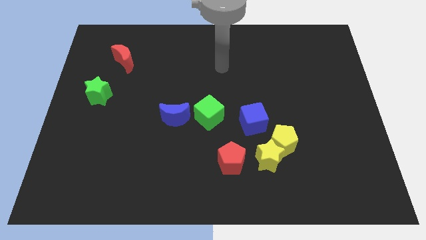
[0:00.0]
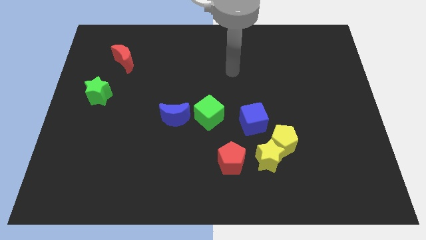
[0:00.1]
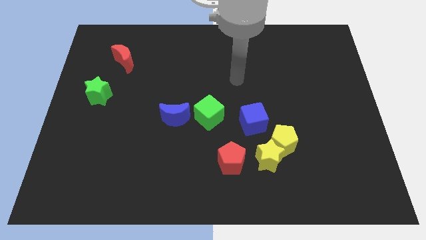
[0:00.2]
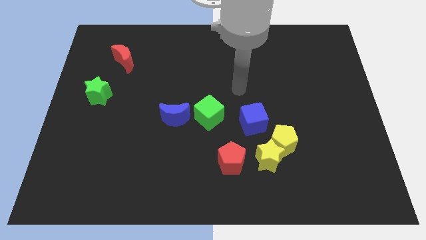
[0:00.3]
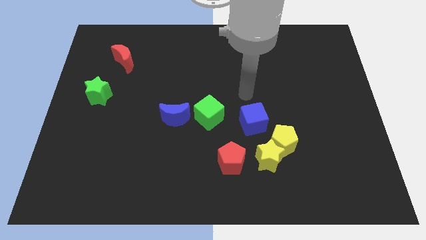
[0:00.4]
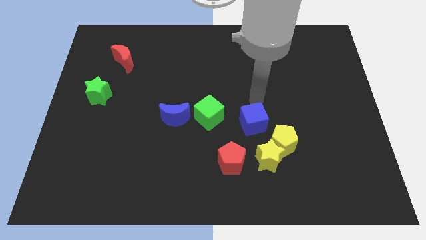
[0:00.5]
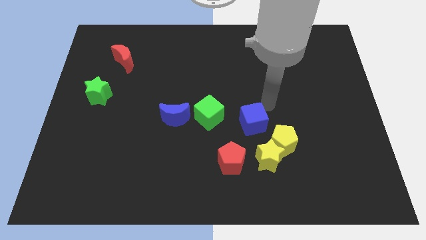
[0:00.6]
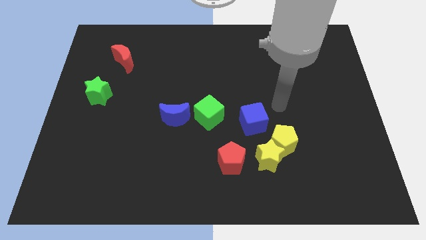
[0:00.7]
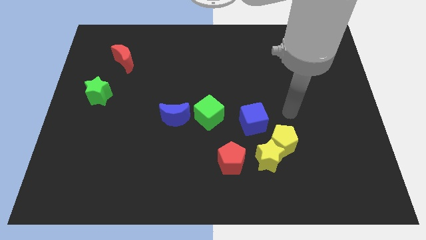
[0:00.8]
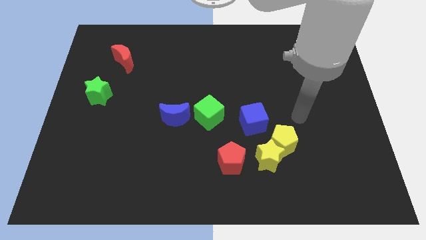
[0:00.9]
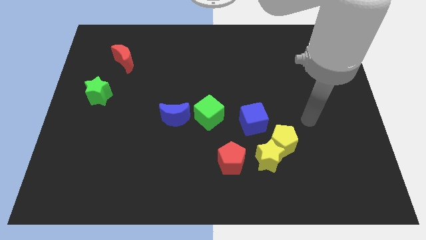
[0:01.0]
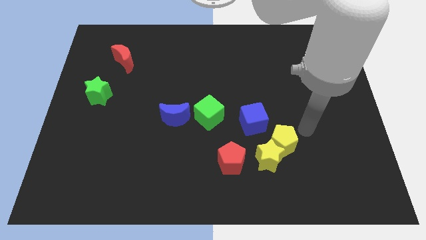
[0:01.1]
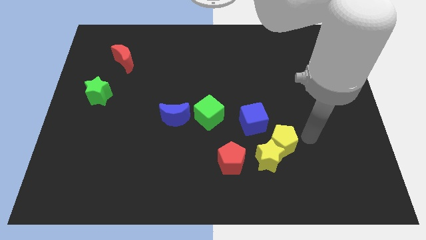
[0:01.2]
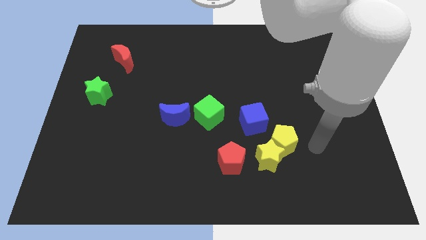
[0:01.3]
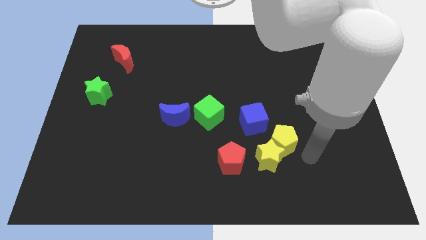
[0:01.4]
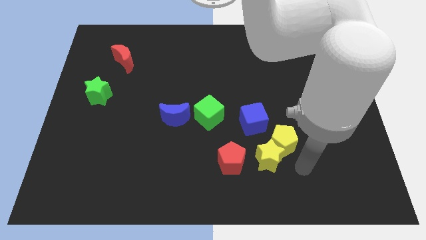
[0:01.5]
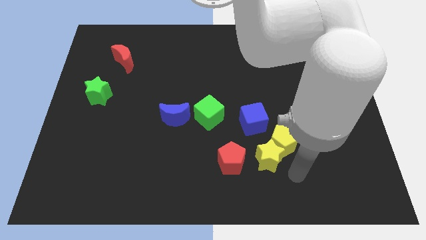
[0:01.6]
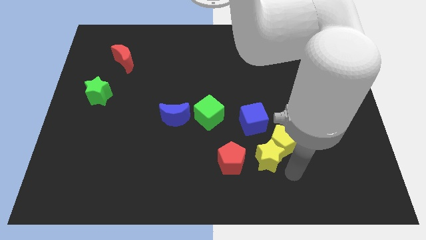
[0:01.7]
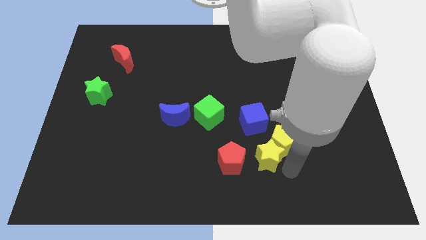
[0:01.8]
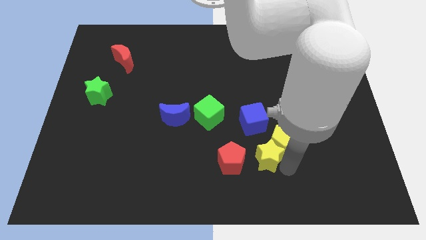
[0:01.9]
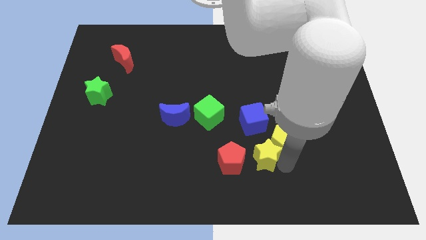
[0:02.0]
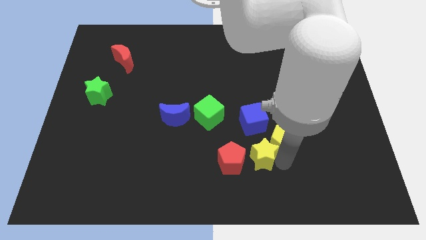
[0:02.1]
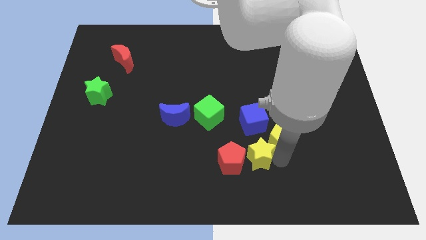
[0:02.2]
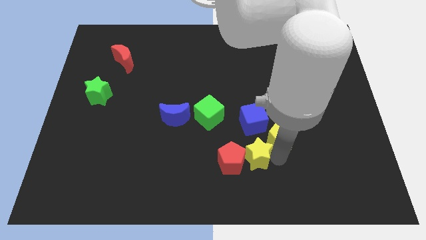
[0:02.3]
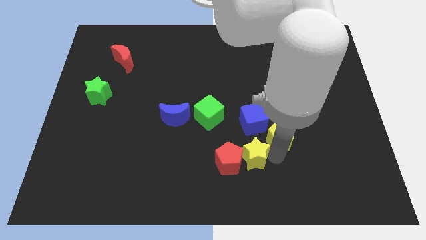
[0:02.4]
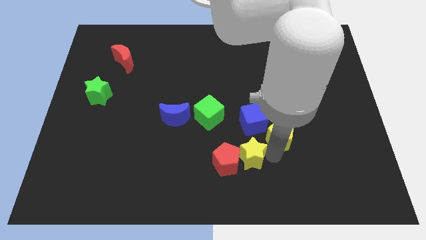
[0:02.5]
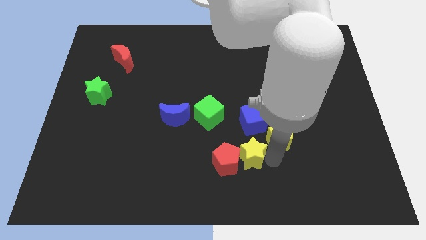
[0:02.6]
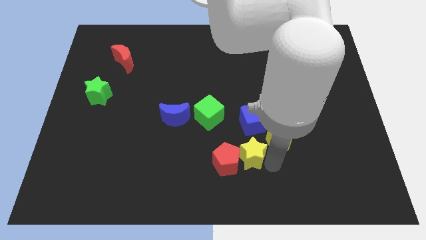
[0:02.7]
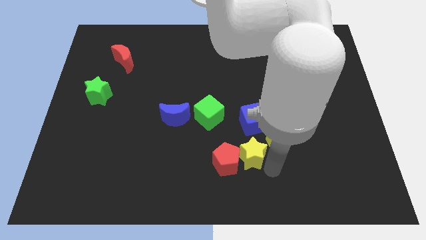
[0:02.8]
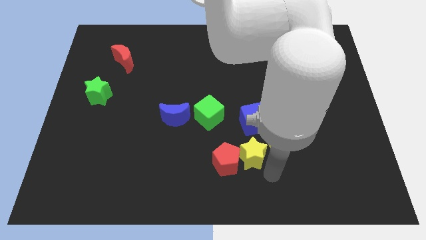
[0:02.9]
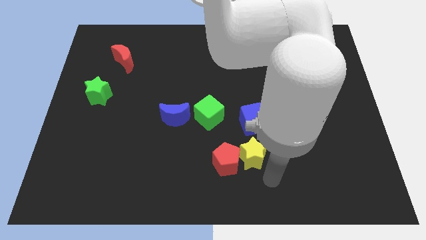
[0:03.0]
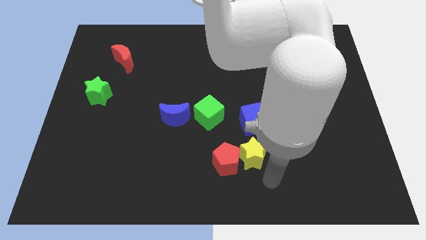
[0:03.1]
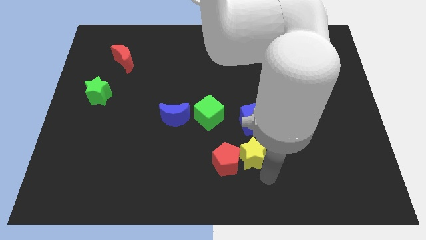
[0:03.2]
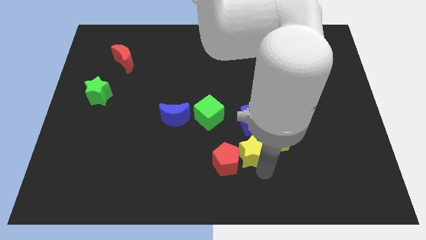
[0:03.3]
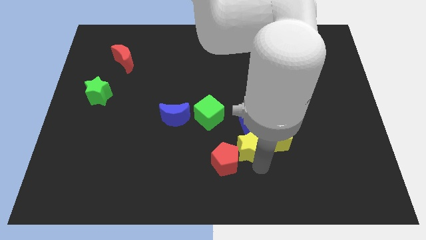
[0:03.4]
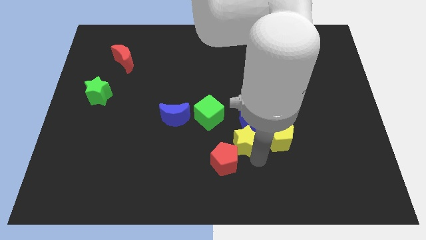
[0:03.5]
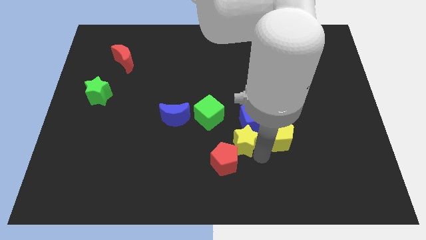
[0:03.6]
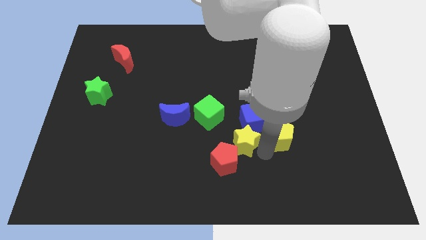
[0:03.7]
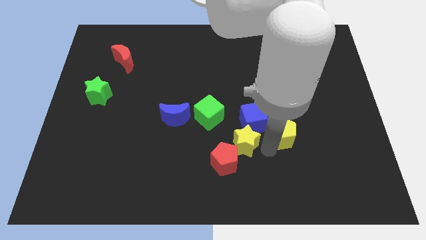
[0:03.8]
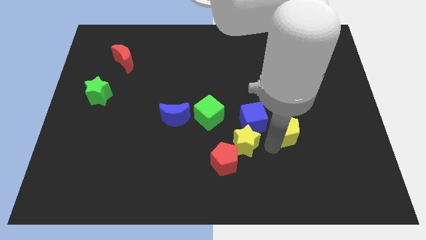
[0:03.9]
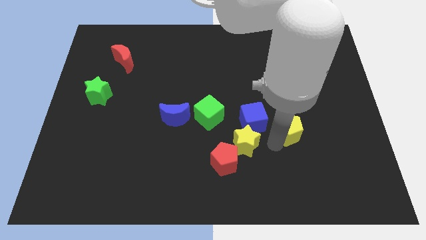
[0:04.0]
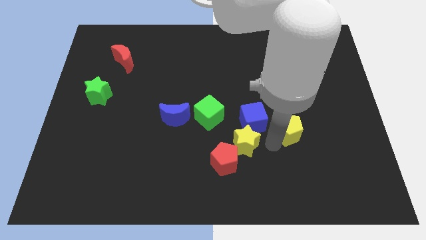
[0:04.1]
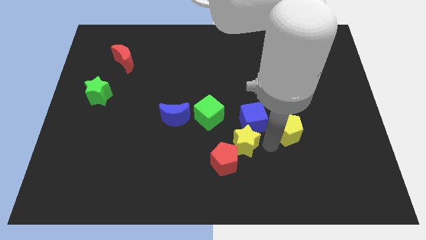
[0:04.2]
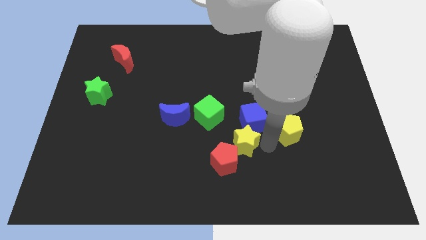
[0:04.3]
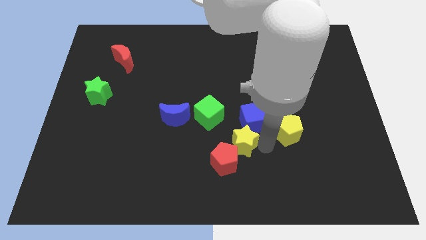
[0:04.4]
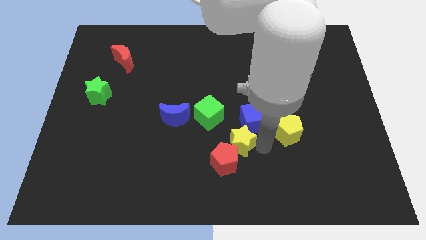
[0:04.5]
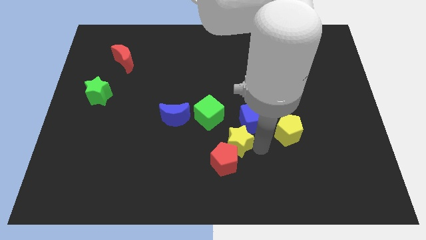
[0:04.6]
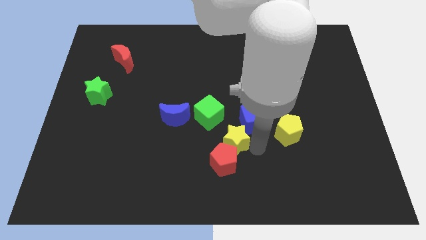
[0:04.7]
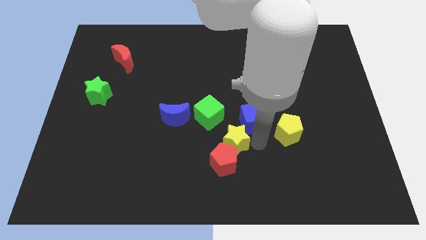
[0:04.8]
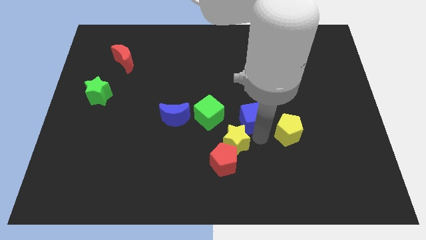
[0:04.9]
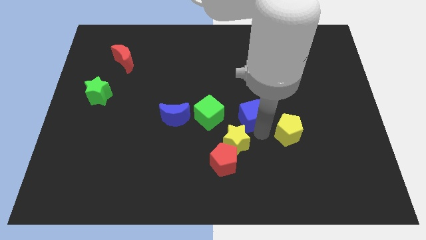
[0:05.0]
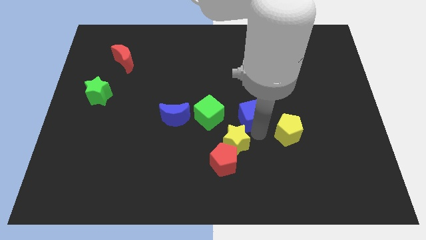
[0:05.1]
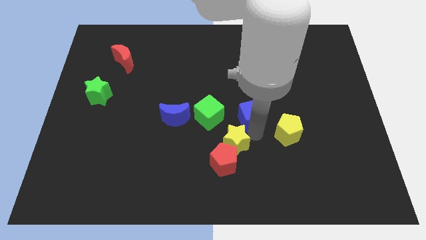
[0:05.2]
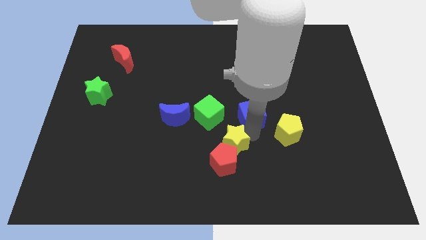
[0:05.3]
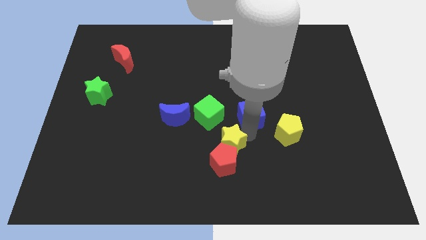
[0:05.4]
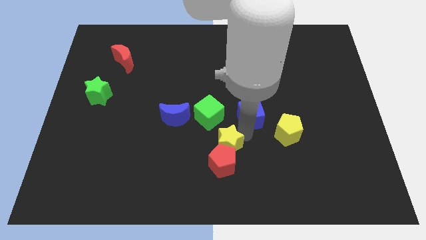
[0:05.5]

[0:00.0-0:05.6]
slide the yellow star to the bottom of the green cube

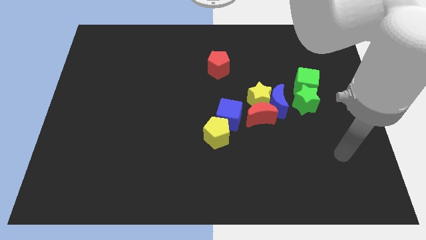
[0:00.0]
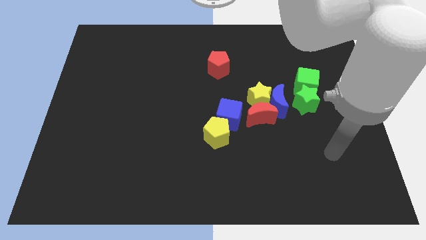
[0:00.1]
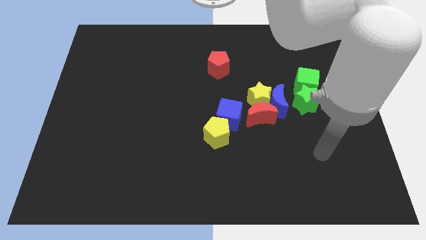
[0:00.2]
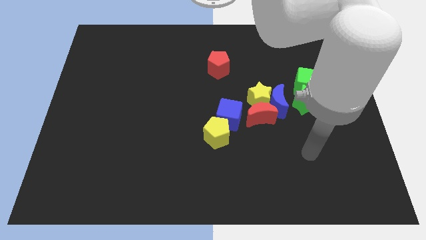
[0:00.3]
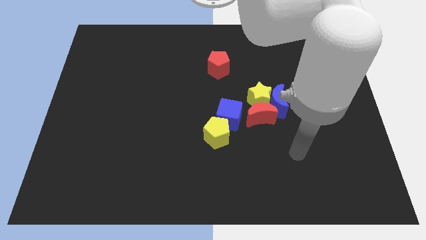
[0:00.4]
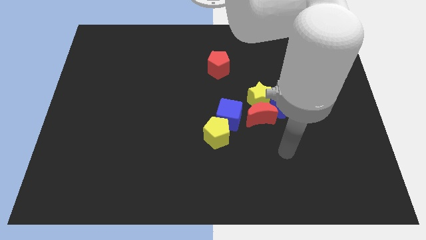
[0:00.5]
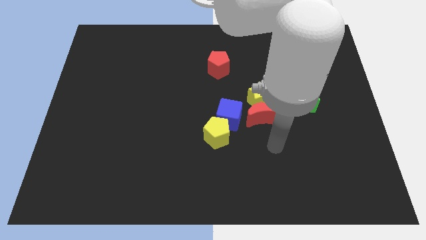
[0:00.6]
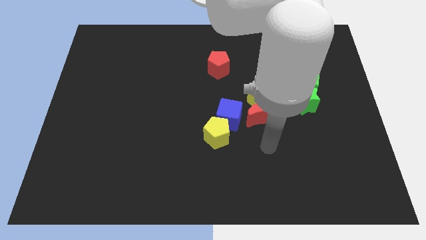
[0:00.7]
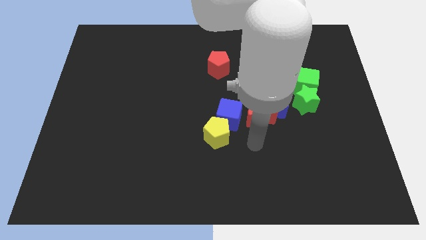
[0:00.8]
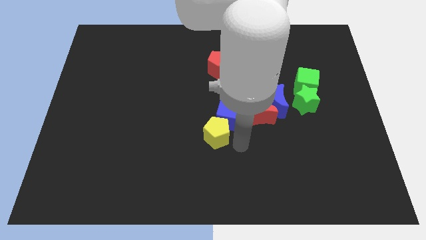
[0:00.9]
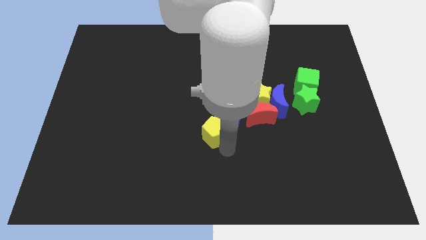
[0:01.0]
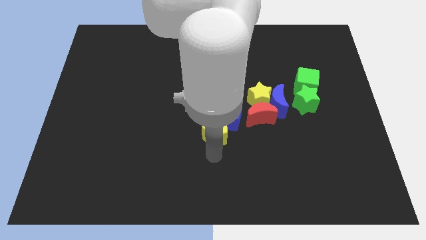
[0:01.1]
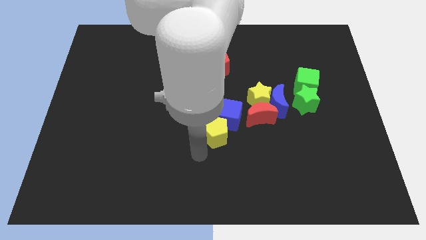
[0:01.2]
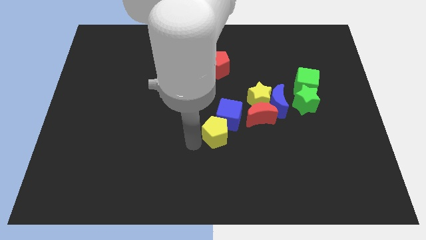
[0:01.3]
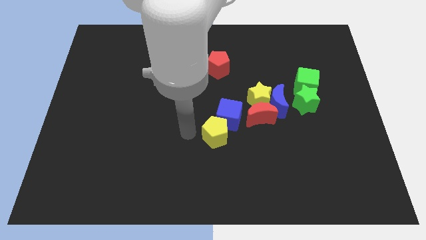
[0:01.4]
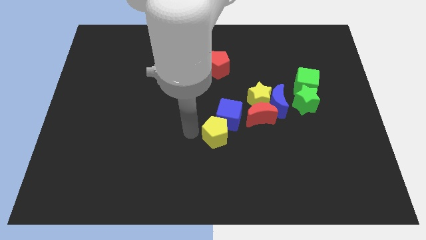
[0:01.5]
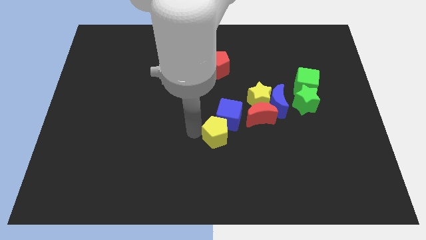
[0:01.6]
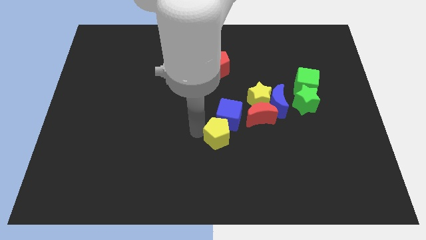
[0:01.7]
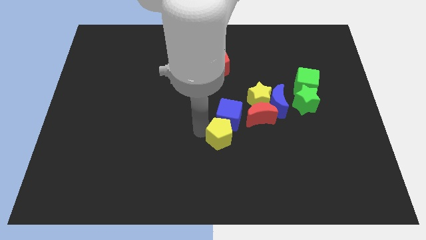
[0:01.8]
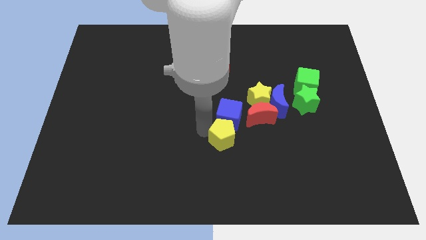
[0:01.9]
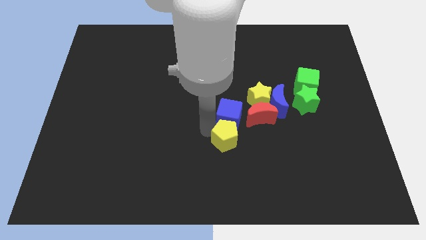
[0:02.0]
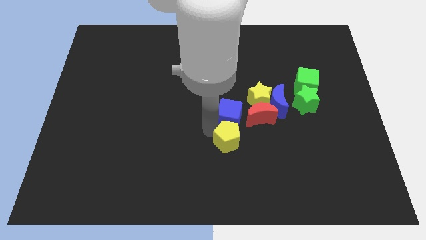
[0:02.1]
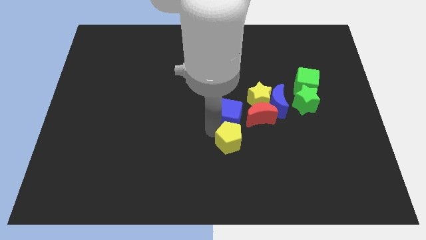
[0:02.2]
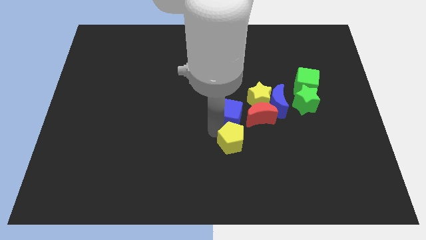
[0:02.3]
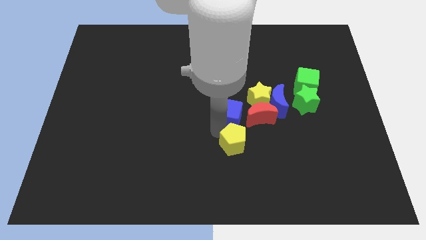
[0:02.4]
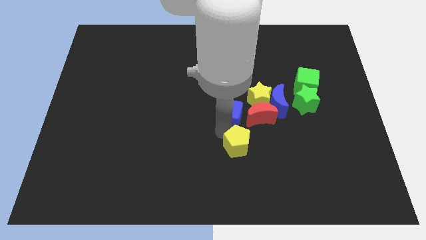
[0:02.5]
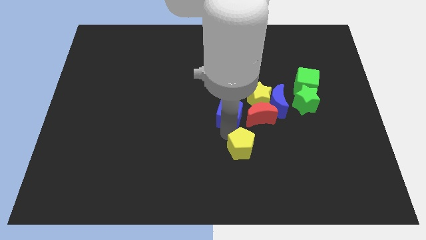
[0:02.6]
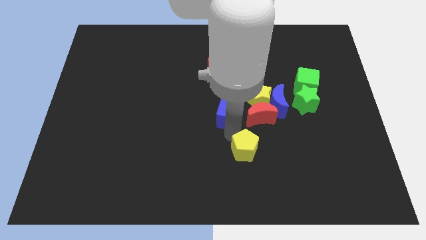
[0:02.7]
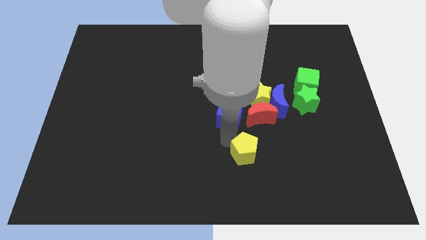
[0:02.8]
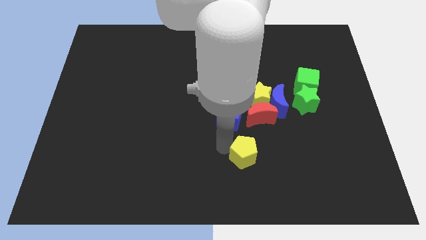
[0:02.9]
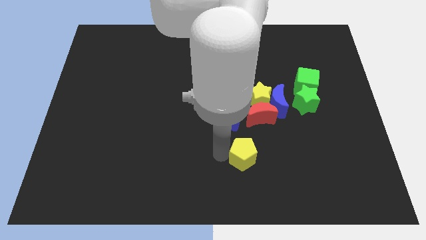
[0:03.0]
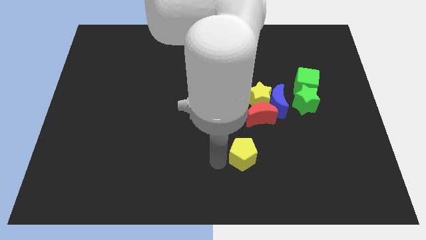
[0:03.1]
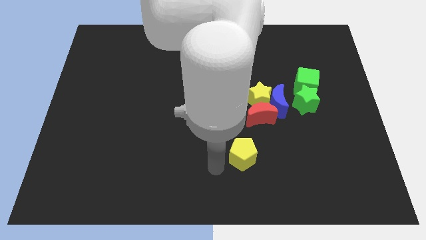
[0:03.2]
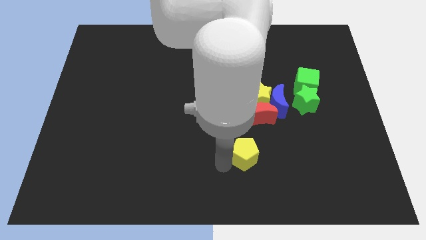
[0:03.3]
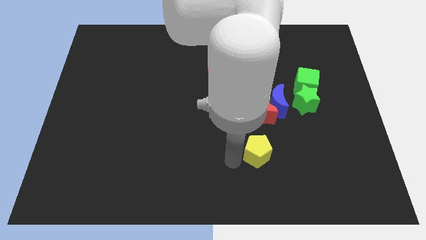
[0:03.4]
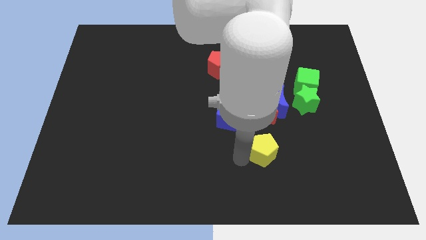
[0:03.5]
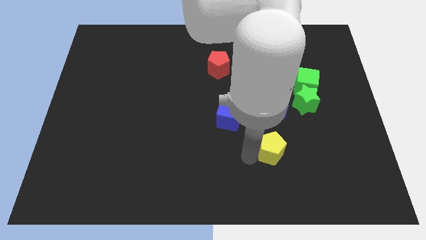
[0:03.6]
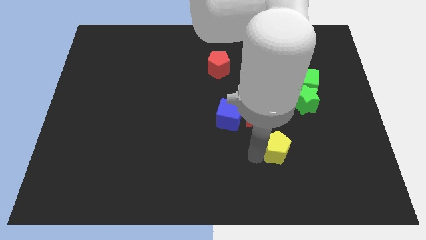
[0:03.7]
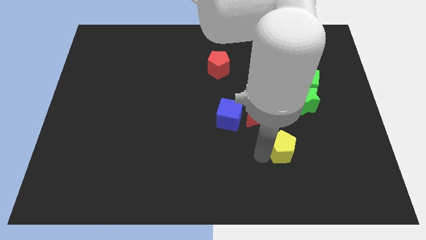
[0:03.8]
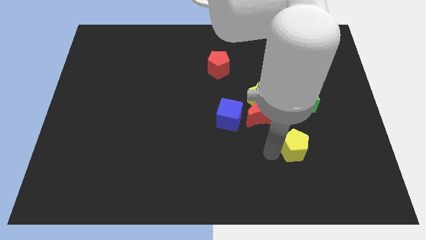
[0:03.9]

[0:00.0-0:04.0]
move the yellow pentagon below the green star
